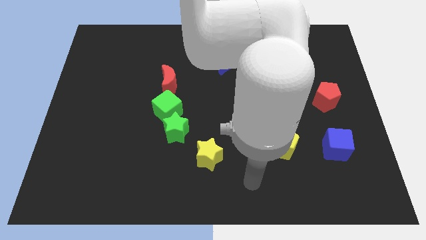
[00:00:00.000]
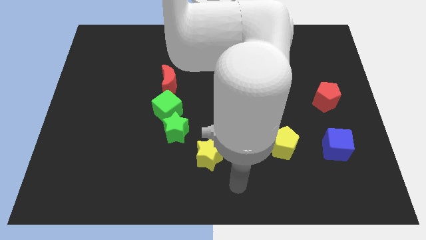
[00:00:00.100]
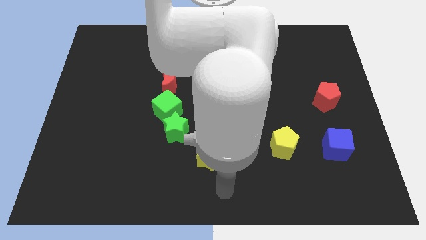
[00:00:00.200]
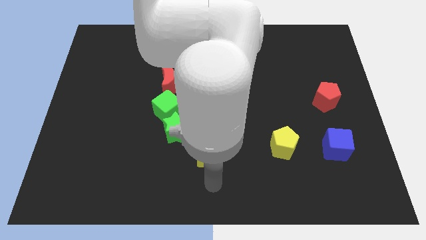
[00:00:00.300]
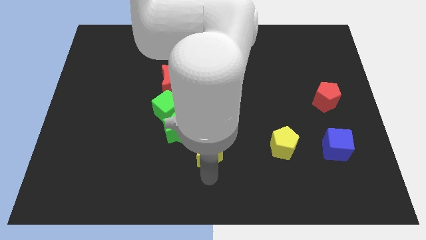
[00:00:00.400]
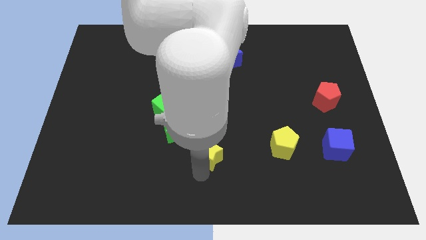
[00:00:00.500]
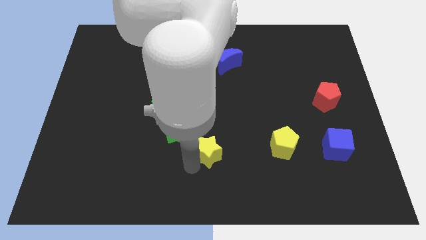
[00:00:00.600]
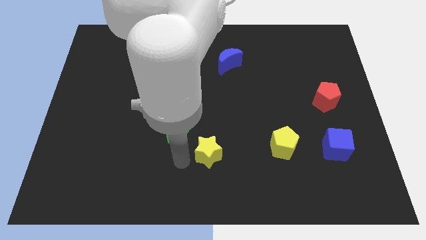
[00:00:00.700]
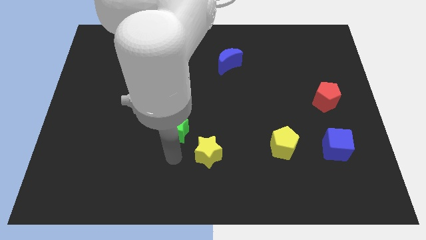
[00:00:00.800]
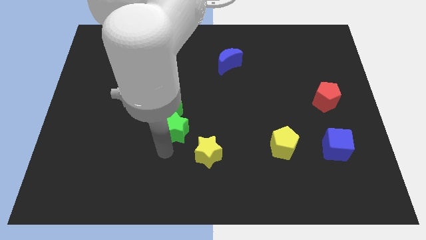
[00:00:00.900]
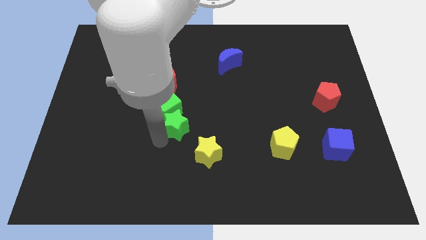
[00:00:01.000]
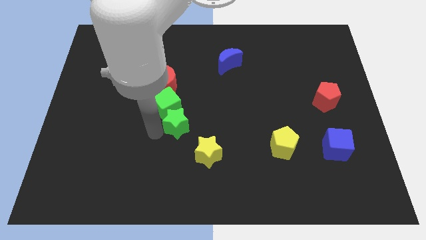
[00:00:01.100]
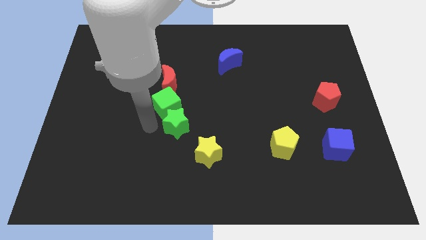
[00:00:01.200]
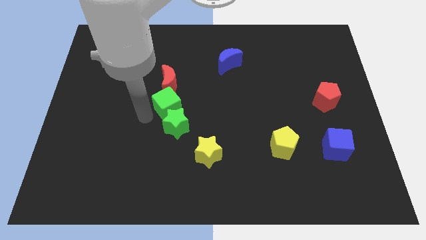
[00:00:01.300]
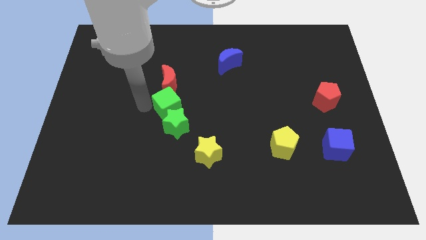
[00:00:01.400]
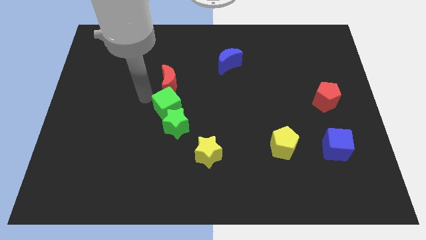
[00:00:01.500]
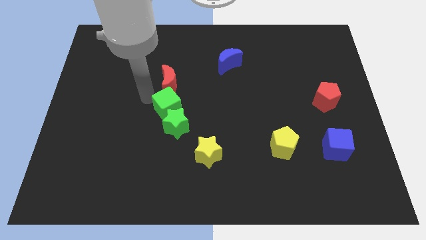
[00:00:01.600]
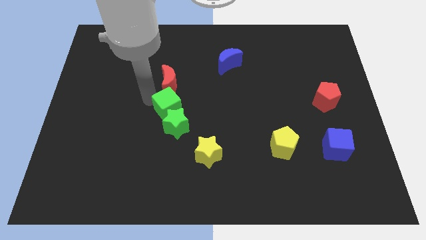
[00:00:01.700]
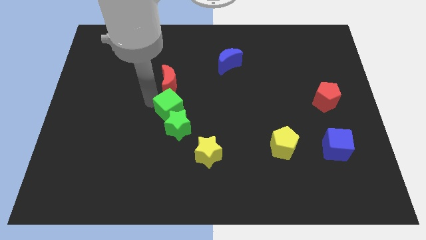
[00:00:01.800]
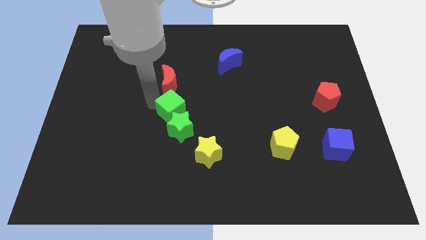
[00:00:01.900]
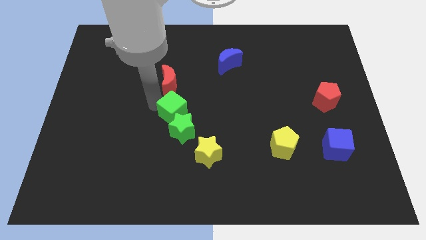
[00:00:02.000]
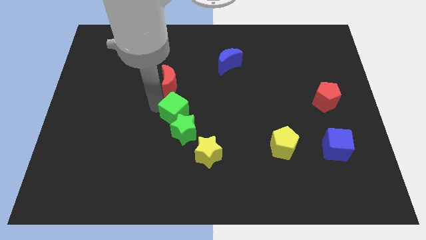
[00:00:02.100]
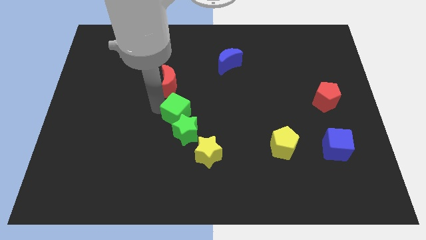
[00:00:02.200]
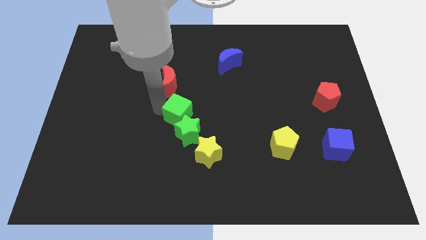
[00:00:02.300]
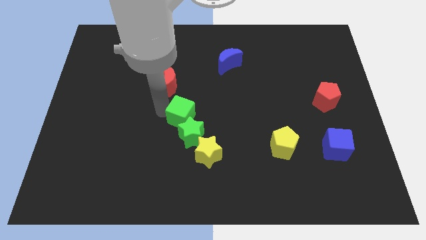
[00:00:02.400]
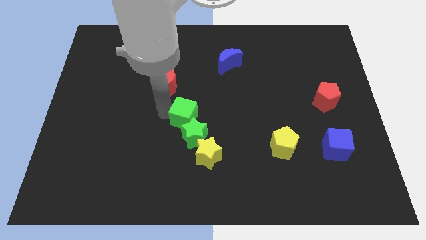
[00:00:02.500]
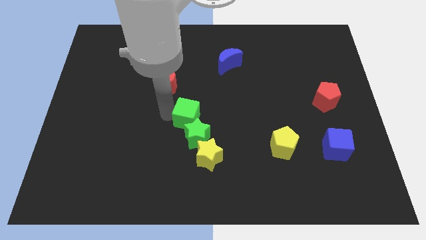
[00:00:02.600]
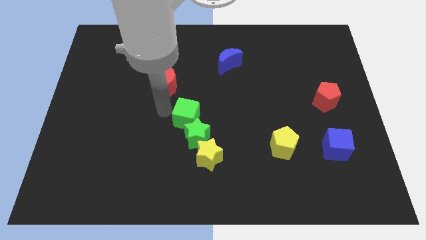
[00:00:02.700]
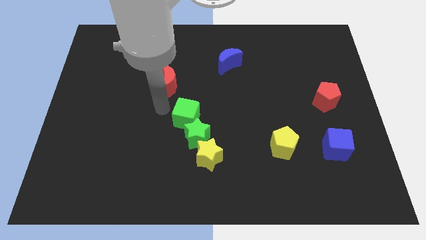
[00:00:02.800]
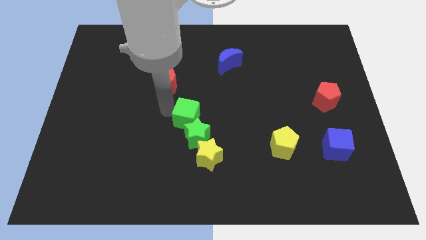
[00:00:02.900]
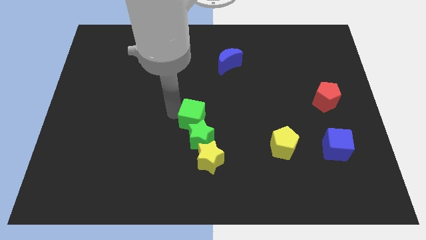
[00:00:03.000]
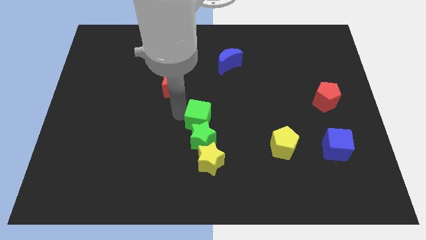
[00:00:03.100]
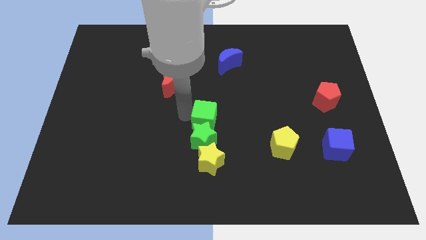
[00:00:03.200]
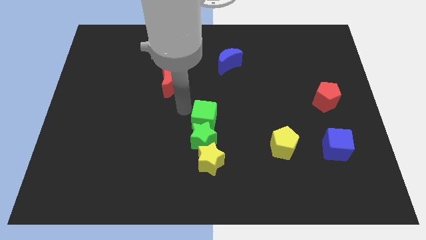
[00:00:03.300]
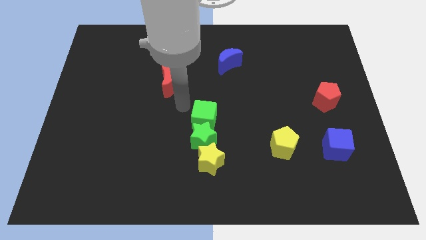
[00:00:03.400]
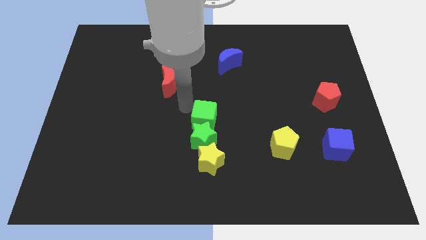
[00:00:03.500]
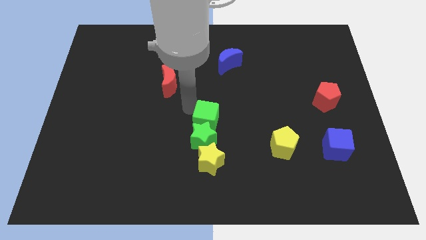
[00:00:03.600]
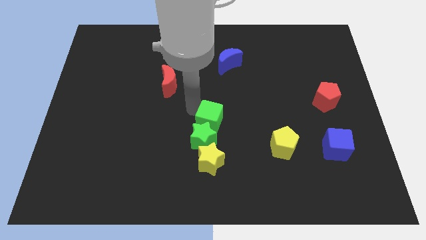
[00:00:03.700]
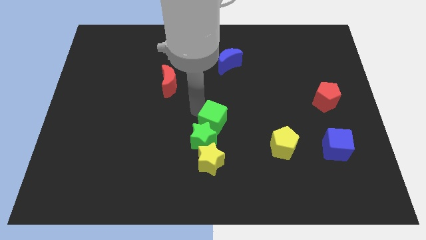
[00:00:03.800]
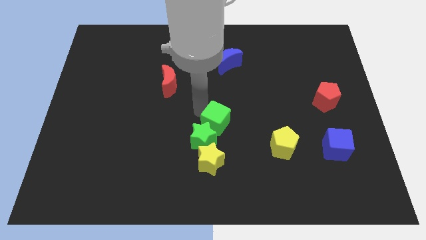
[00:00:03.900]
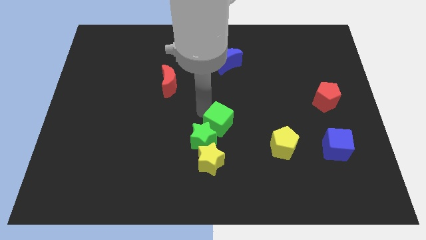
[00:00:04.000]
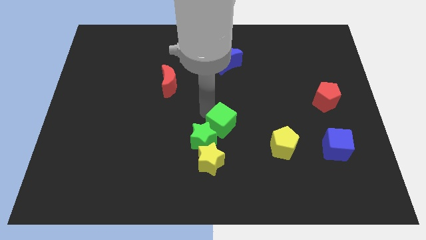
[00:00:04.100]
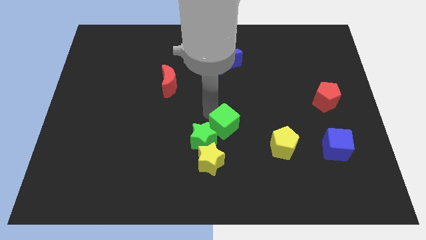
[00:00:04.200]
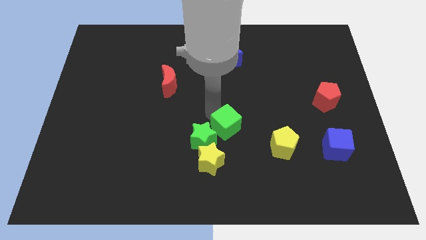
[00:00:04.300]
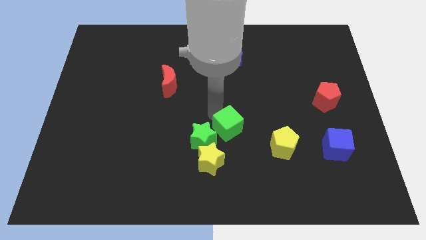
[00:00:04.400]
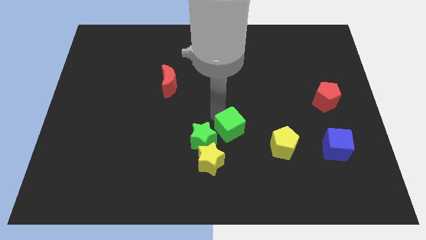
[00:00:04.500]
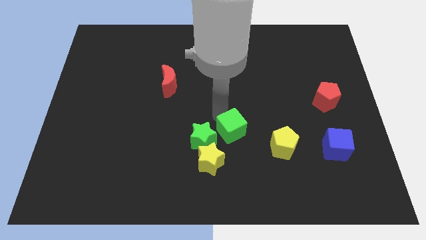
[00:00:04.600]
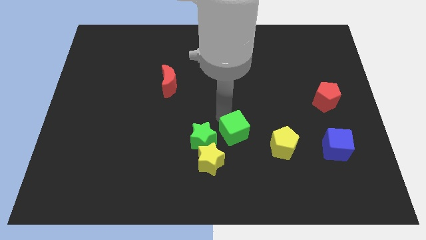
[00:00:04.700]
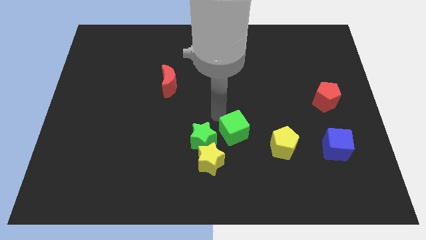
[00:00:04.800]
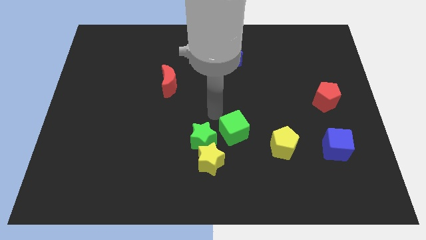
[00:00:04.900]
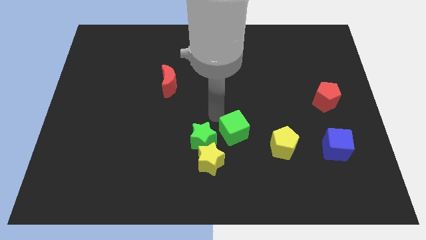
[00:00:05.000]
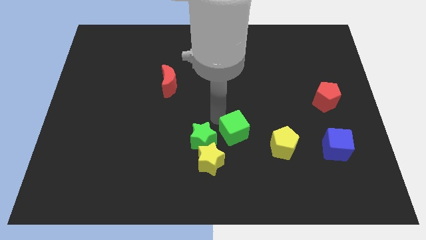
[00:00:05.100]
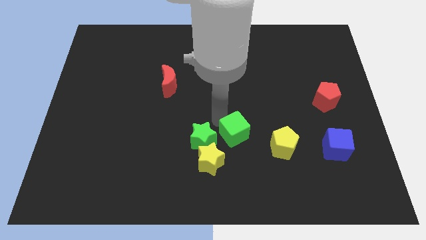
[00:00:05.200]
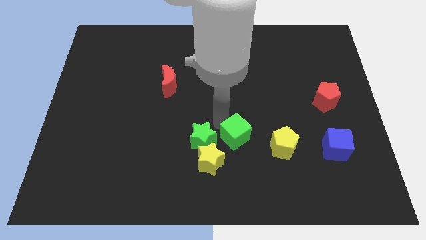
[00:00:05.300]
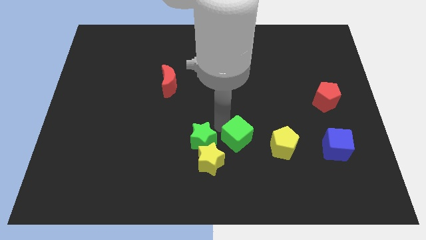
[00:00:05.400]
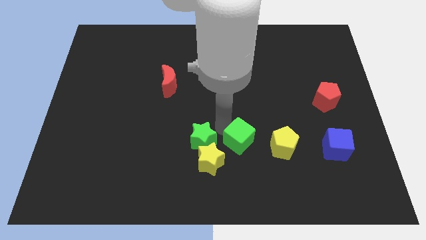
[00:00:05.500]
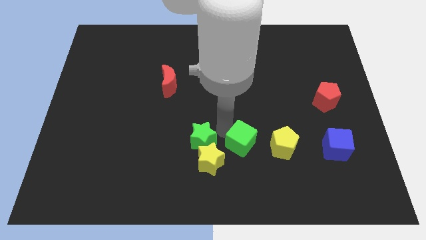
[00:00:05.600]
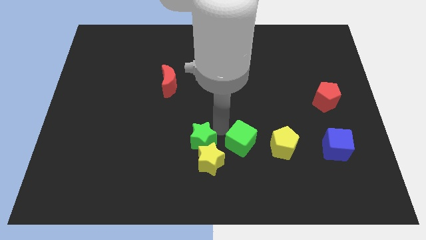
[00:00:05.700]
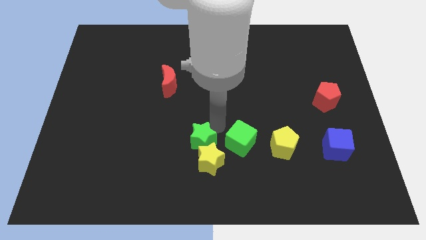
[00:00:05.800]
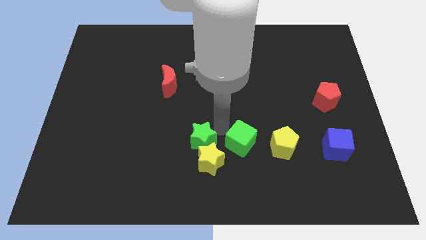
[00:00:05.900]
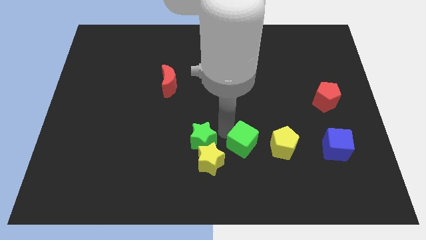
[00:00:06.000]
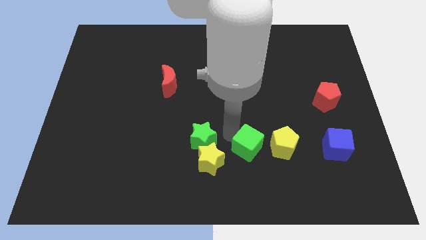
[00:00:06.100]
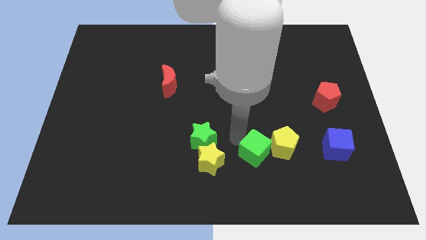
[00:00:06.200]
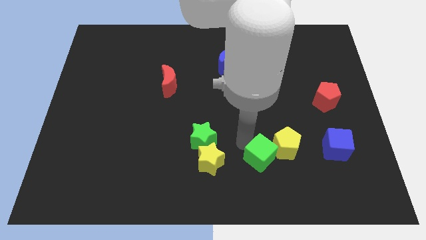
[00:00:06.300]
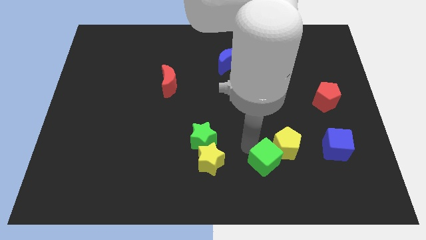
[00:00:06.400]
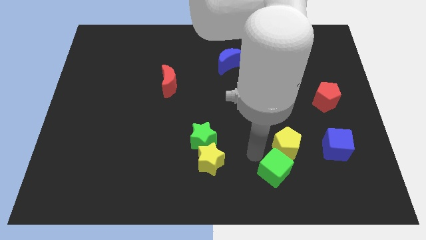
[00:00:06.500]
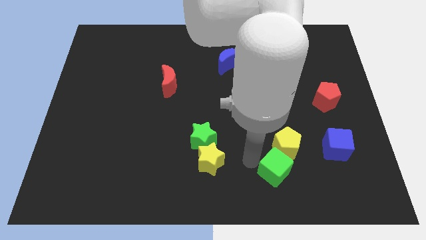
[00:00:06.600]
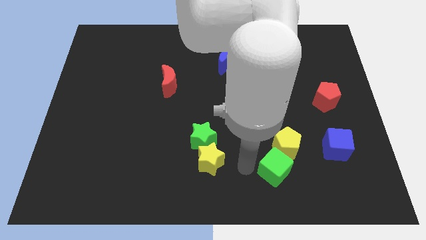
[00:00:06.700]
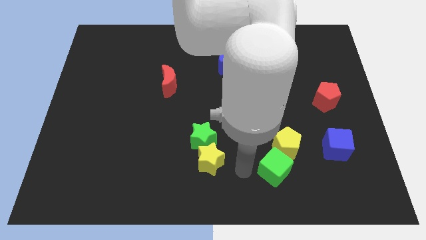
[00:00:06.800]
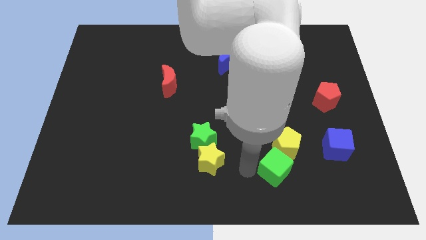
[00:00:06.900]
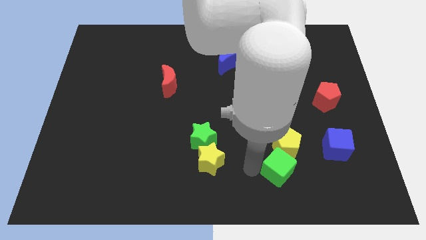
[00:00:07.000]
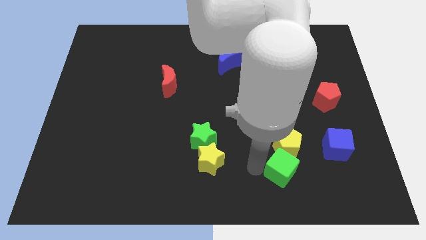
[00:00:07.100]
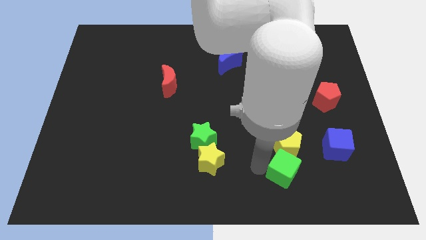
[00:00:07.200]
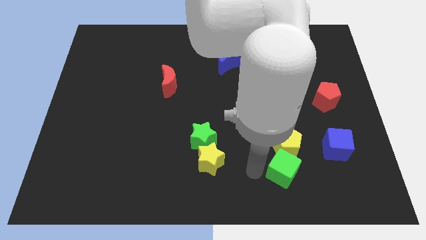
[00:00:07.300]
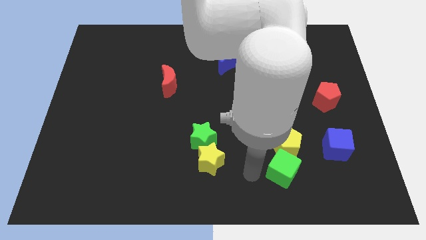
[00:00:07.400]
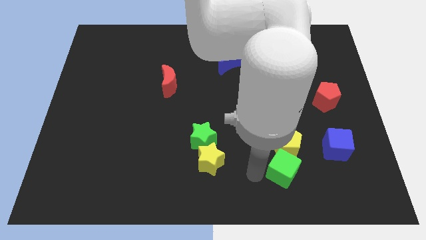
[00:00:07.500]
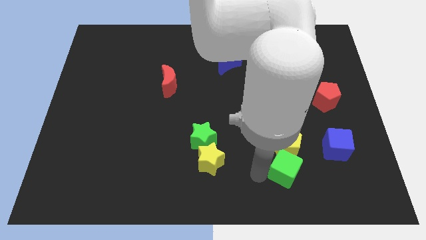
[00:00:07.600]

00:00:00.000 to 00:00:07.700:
put the green cube to the bottom right of the yellow pentagon

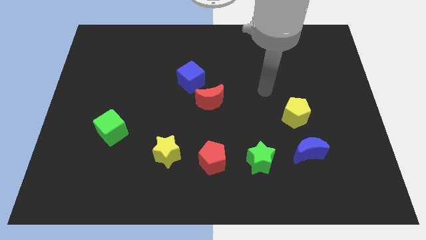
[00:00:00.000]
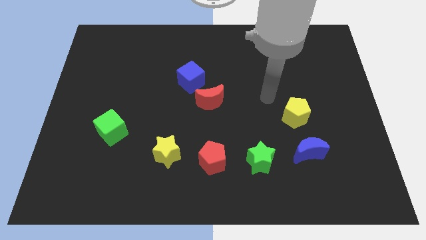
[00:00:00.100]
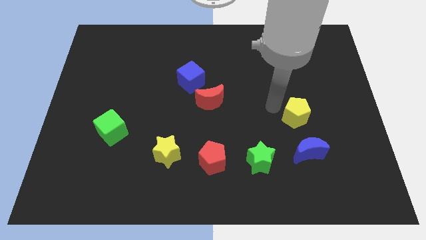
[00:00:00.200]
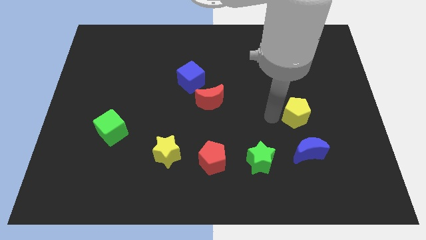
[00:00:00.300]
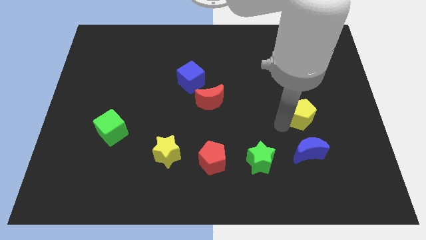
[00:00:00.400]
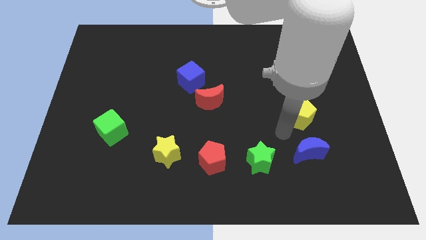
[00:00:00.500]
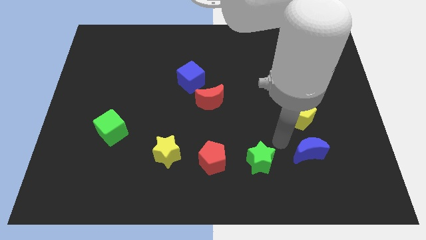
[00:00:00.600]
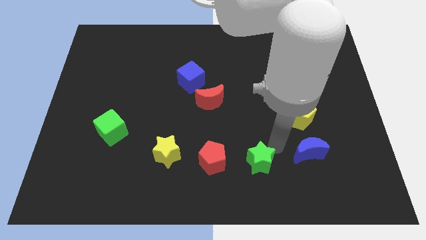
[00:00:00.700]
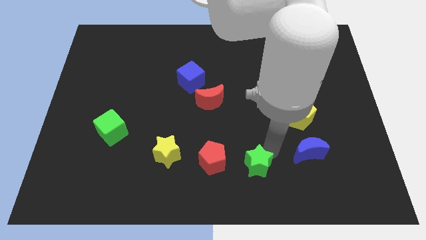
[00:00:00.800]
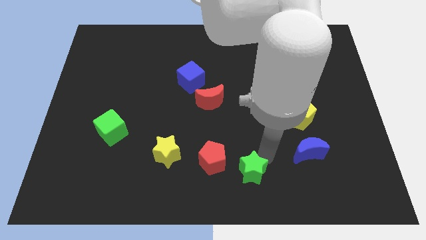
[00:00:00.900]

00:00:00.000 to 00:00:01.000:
push the green star diagonally down and to the right of the red pentagon
